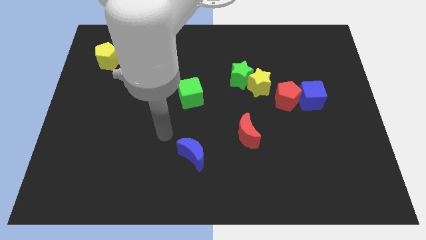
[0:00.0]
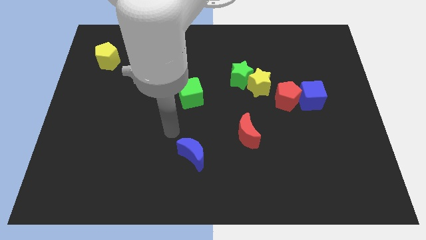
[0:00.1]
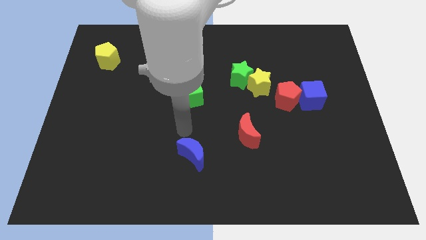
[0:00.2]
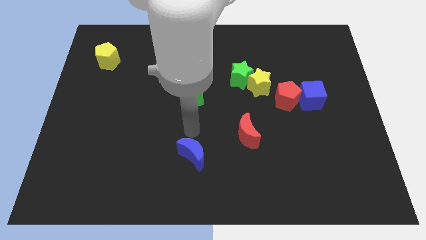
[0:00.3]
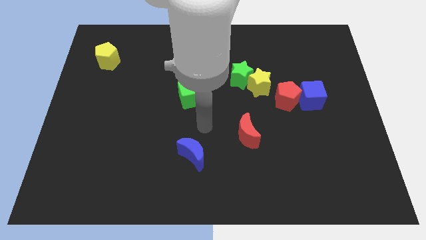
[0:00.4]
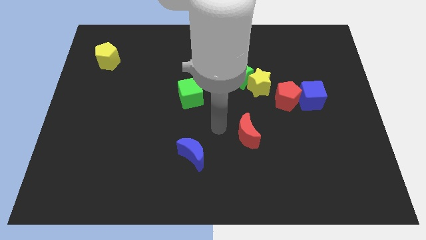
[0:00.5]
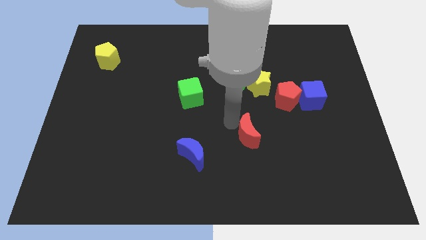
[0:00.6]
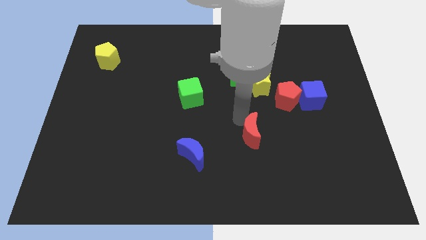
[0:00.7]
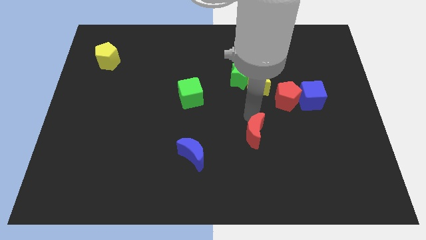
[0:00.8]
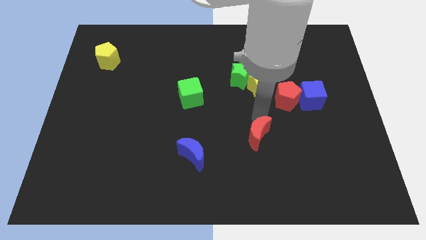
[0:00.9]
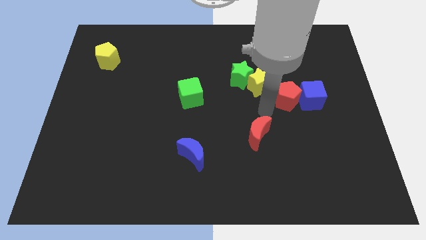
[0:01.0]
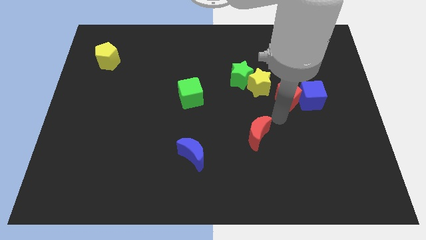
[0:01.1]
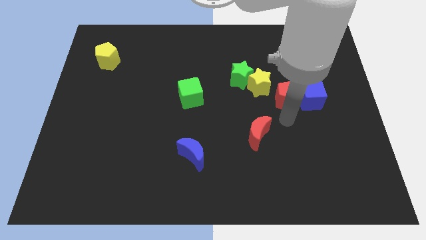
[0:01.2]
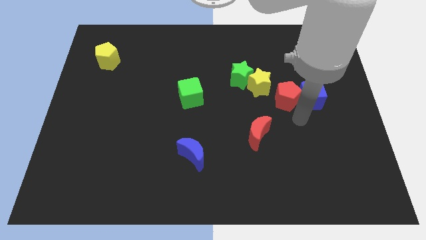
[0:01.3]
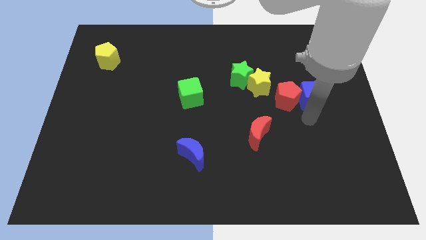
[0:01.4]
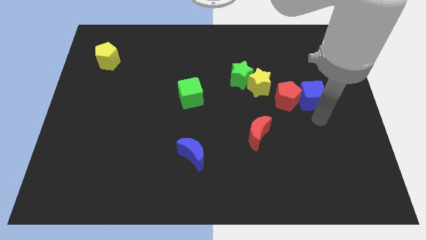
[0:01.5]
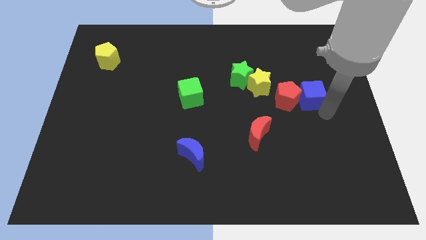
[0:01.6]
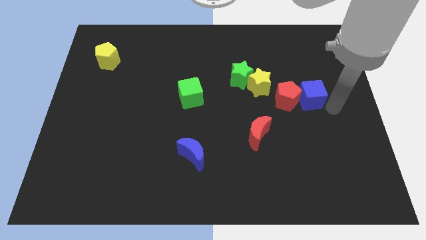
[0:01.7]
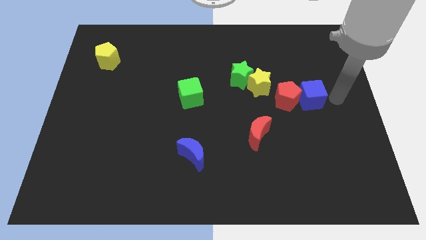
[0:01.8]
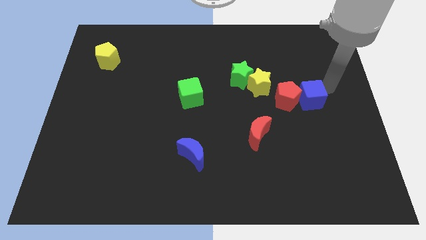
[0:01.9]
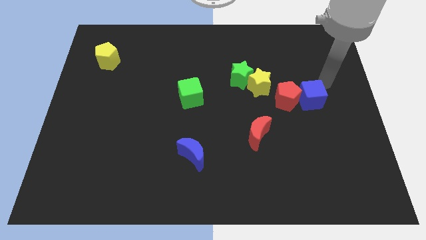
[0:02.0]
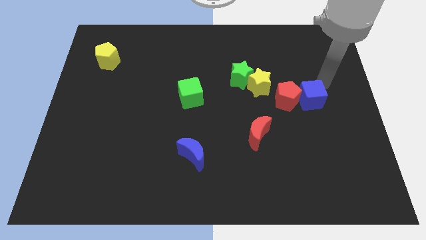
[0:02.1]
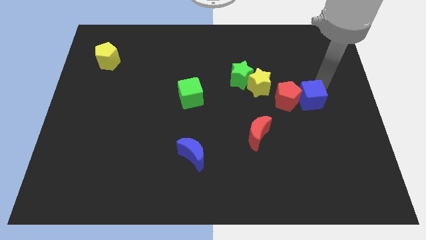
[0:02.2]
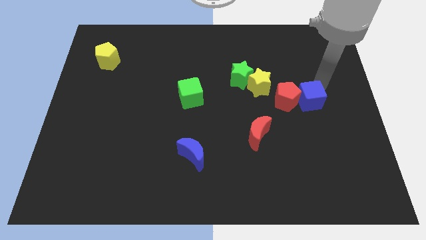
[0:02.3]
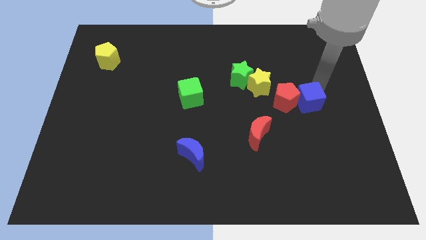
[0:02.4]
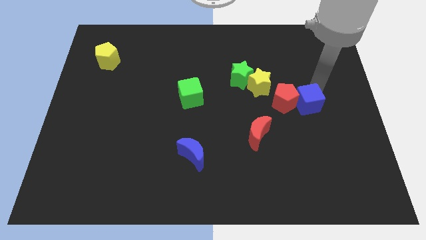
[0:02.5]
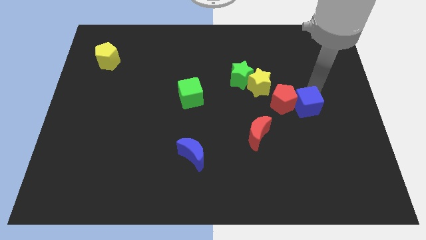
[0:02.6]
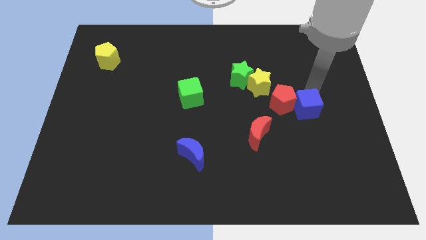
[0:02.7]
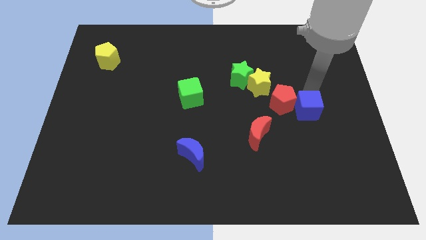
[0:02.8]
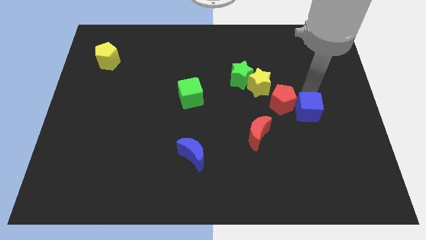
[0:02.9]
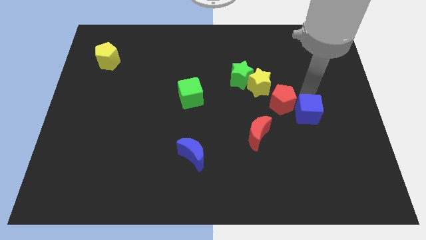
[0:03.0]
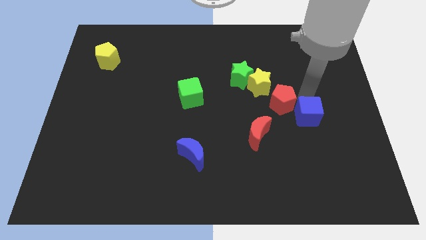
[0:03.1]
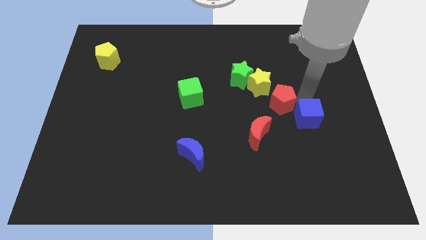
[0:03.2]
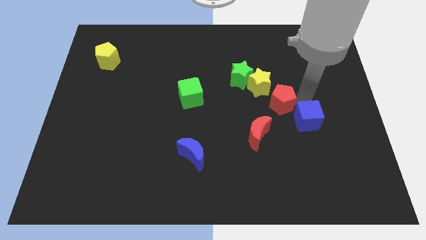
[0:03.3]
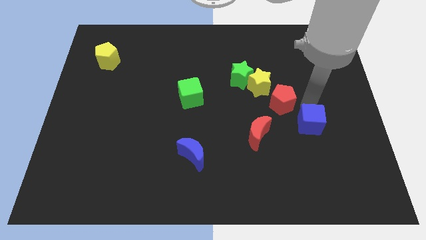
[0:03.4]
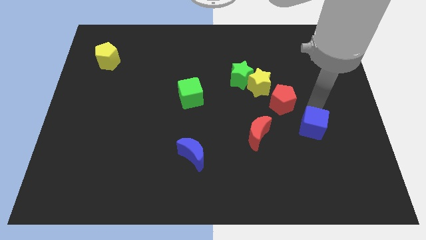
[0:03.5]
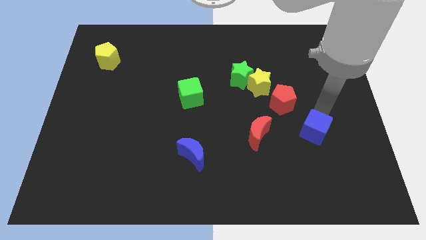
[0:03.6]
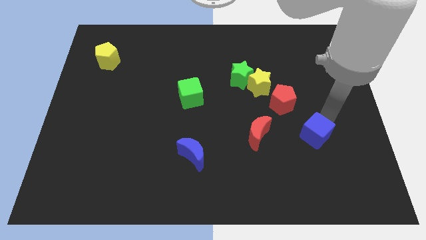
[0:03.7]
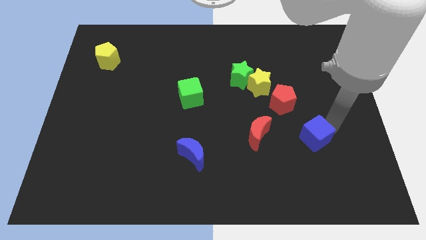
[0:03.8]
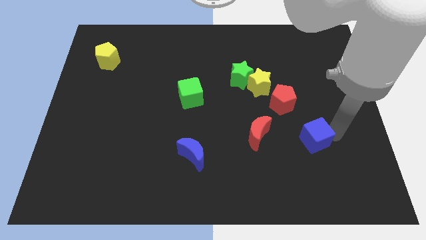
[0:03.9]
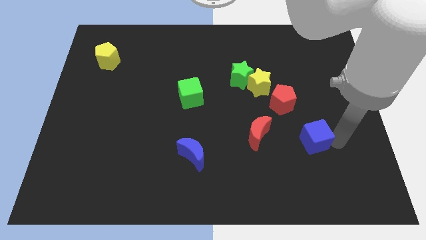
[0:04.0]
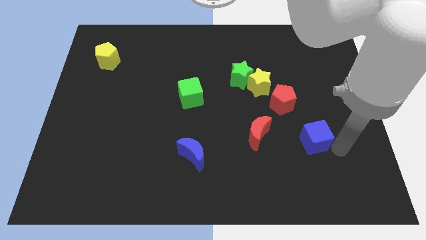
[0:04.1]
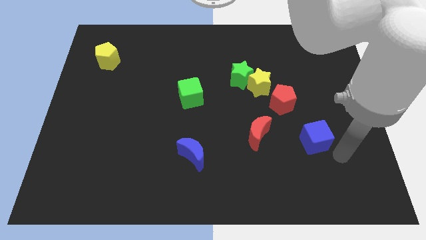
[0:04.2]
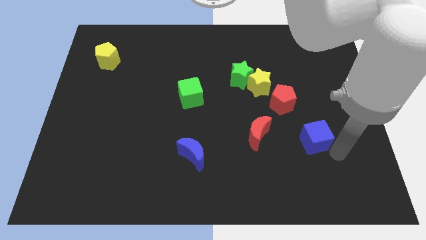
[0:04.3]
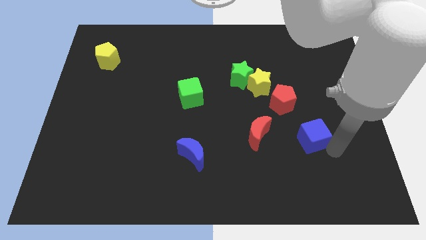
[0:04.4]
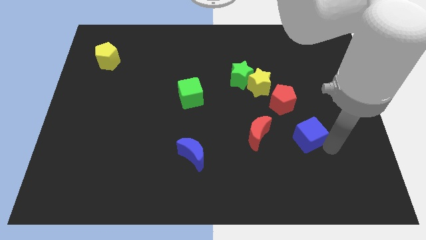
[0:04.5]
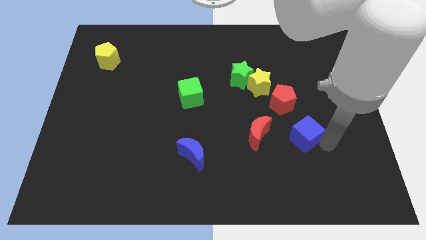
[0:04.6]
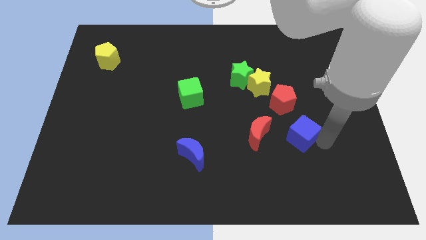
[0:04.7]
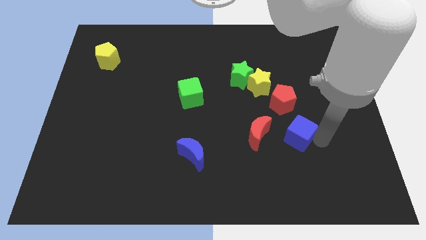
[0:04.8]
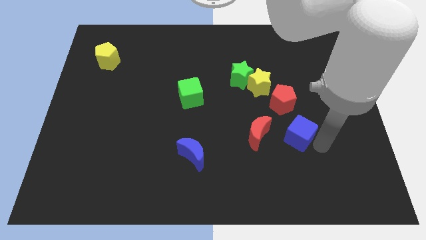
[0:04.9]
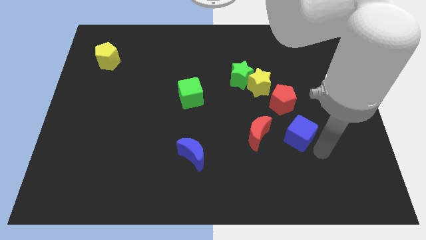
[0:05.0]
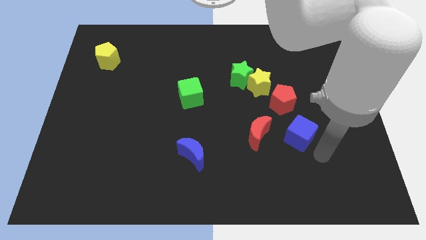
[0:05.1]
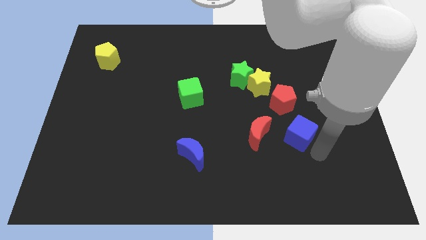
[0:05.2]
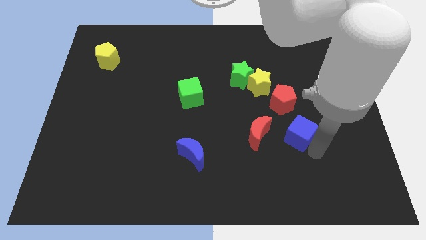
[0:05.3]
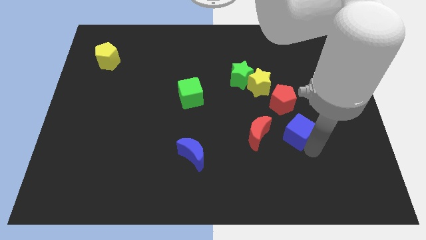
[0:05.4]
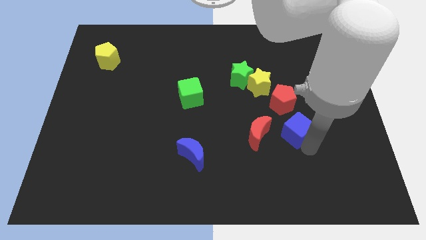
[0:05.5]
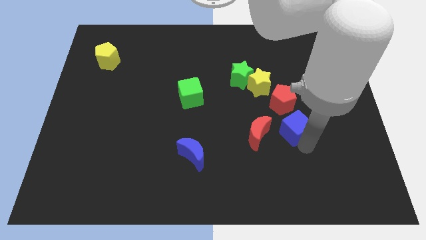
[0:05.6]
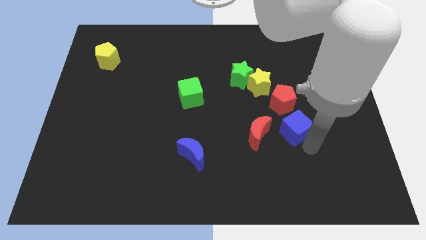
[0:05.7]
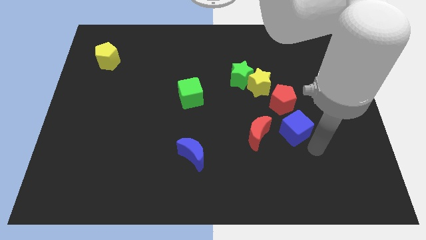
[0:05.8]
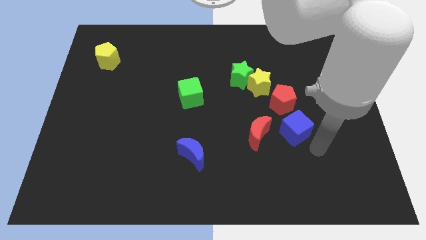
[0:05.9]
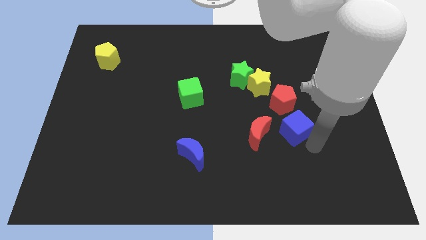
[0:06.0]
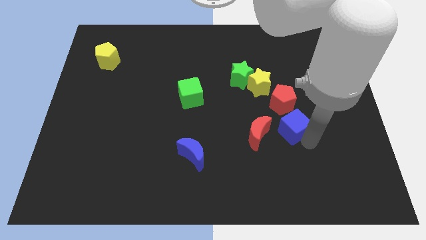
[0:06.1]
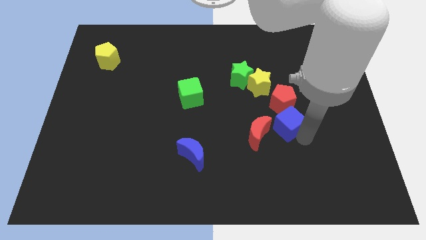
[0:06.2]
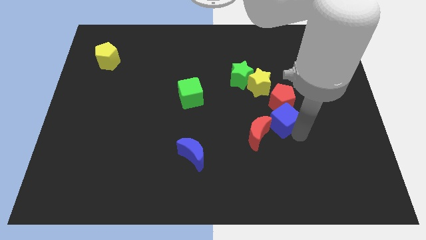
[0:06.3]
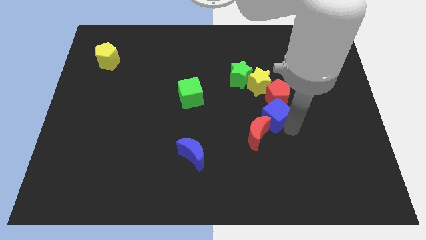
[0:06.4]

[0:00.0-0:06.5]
push the blue cube to the top of the red moon

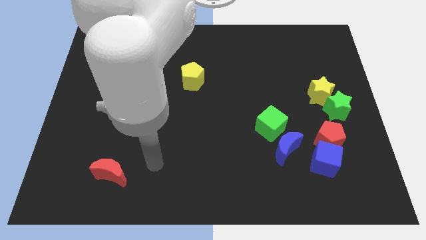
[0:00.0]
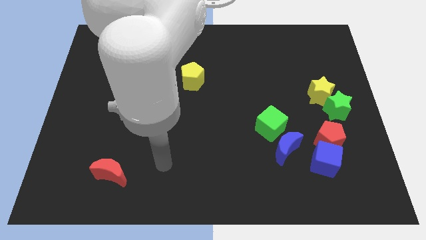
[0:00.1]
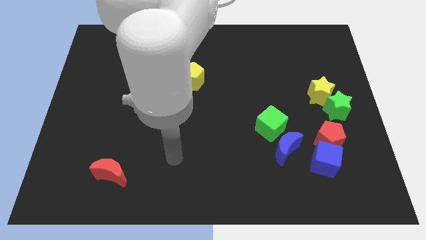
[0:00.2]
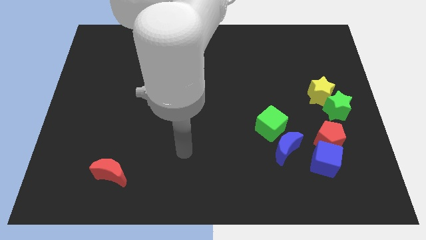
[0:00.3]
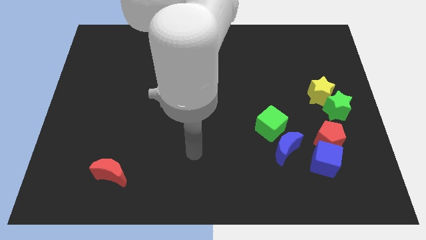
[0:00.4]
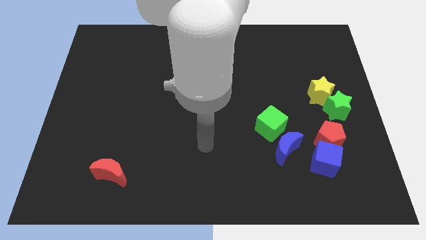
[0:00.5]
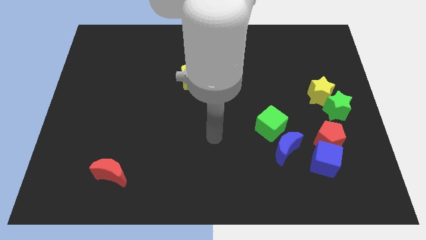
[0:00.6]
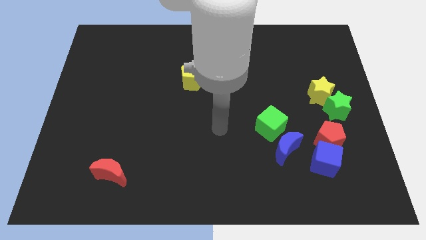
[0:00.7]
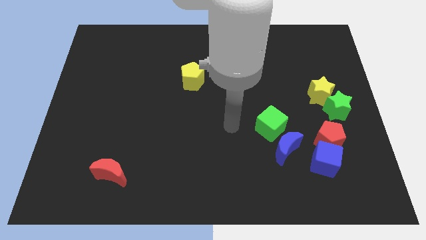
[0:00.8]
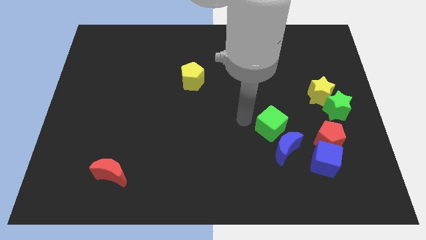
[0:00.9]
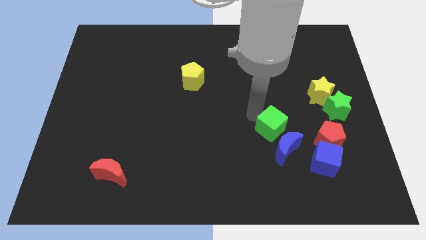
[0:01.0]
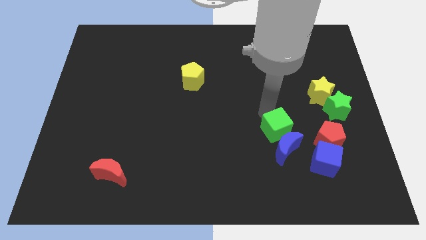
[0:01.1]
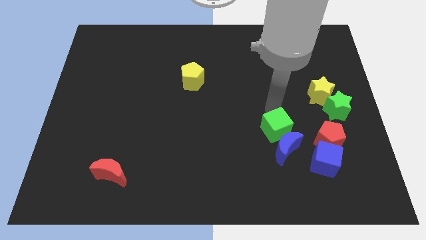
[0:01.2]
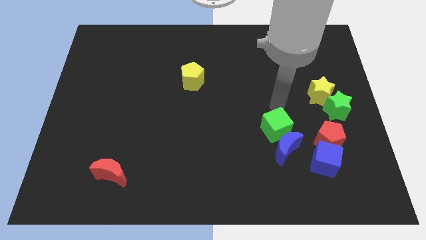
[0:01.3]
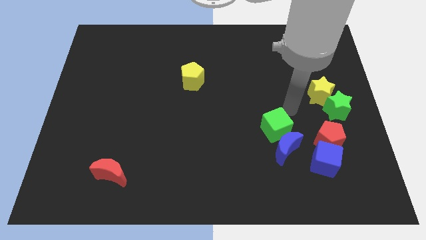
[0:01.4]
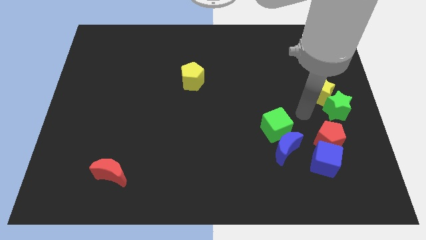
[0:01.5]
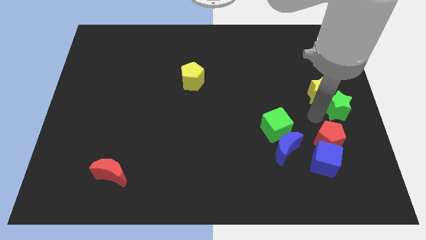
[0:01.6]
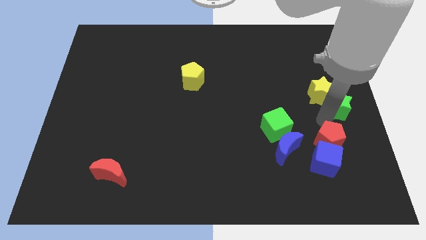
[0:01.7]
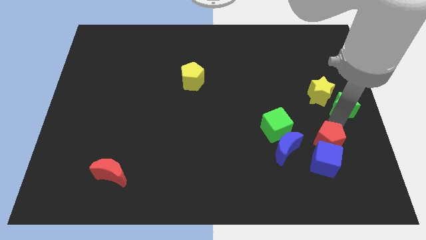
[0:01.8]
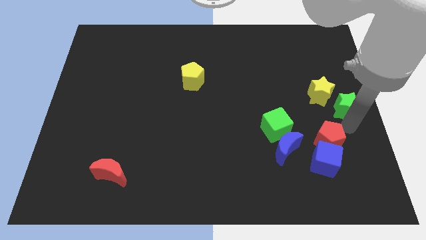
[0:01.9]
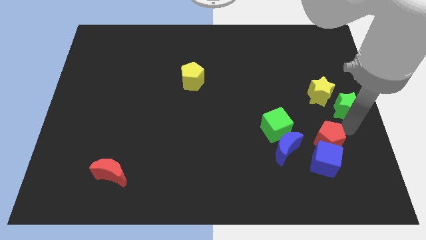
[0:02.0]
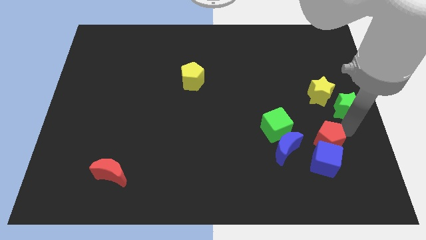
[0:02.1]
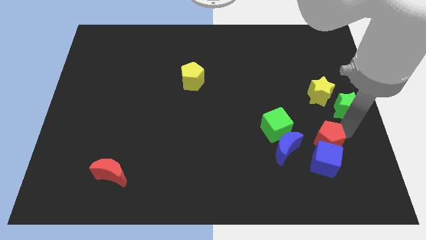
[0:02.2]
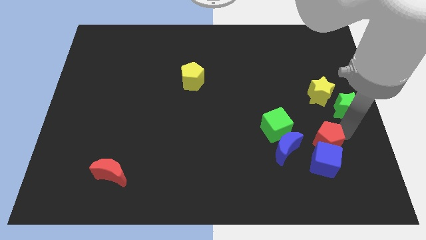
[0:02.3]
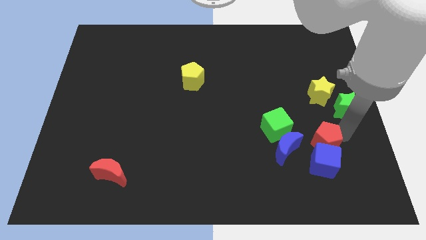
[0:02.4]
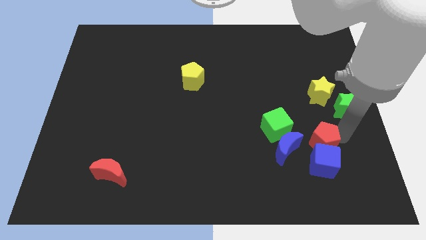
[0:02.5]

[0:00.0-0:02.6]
move the red pentagon diagonally down and to the right of the green cube
